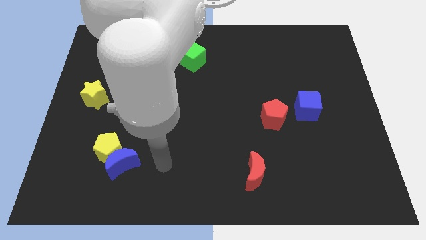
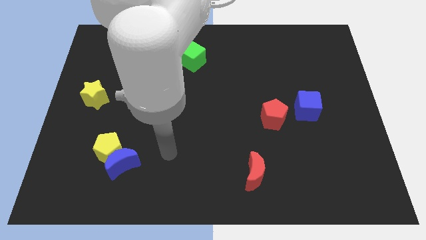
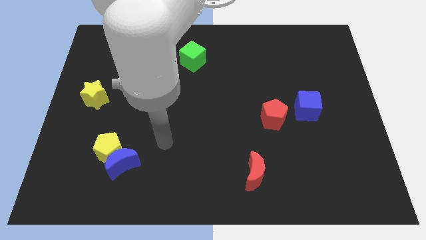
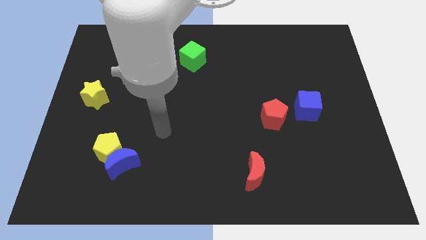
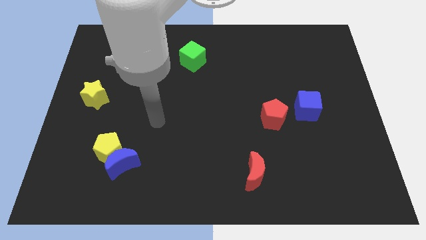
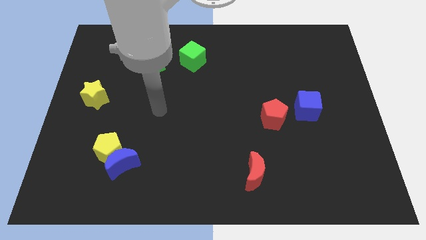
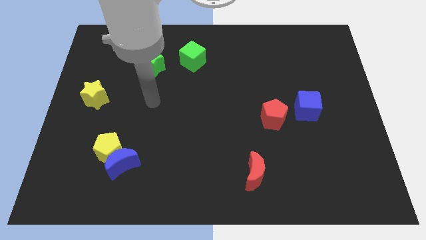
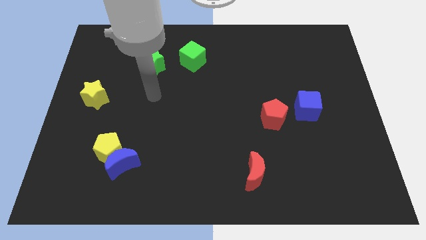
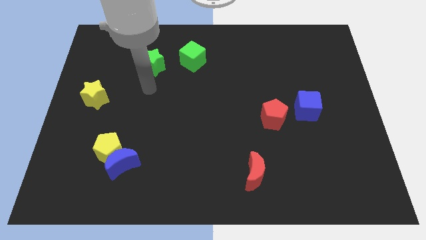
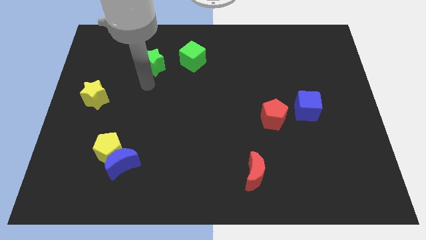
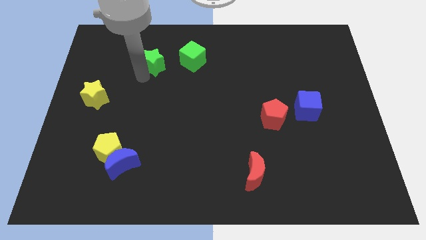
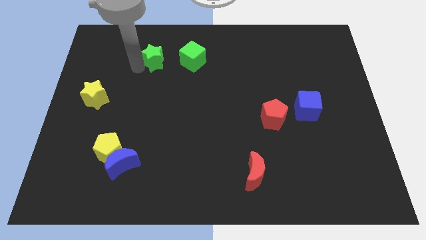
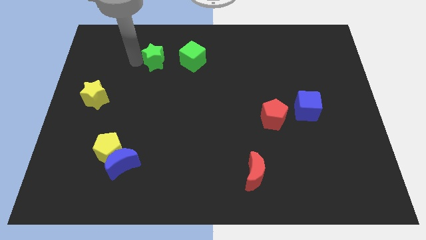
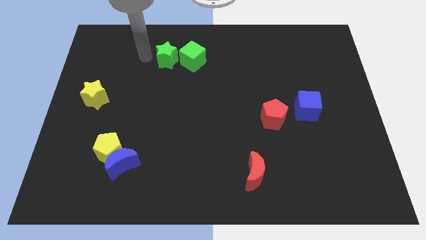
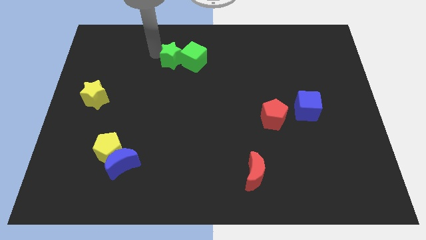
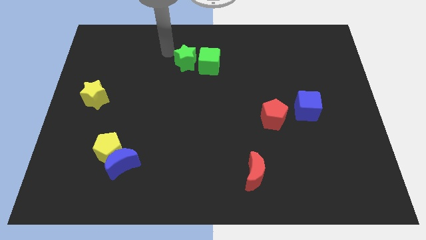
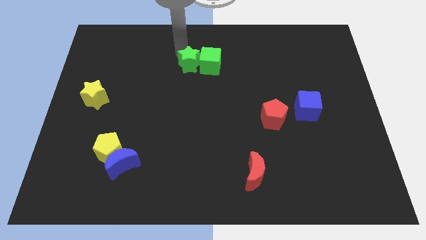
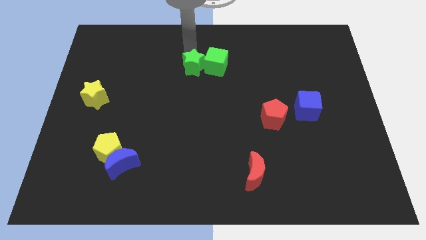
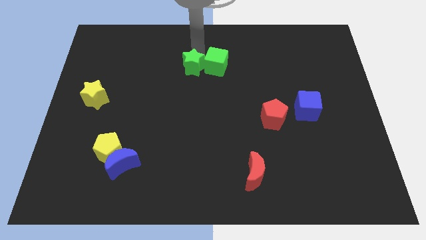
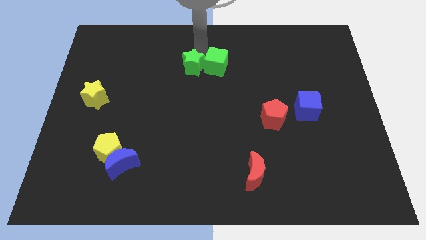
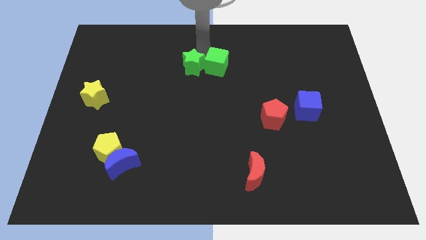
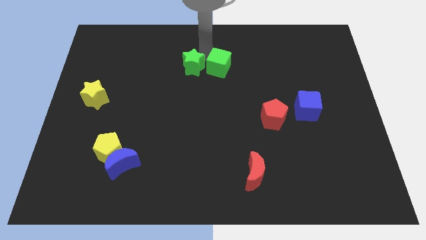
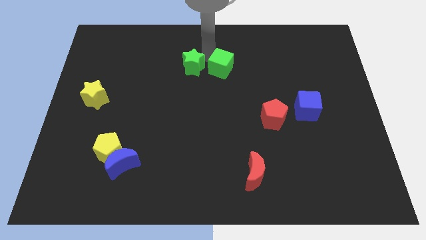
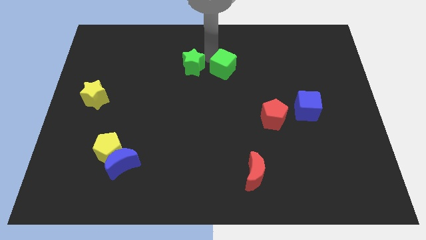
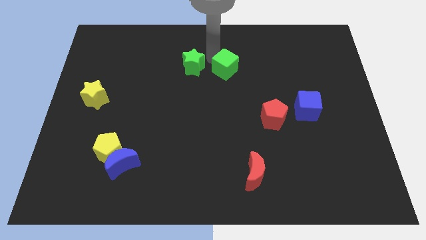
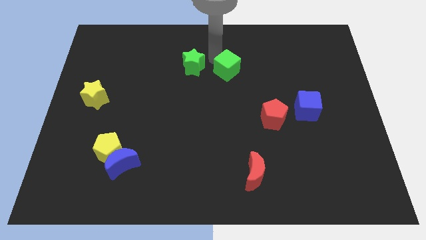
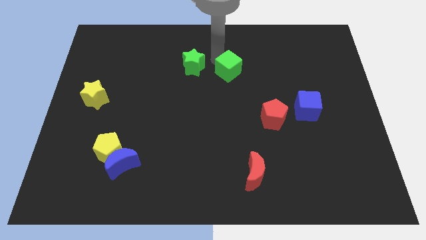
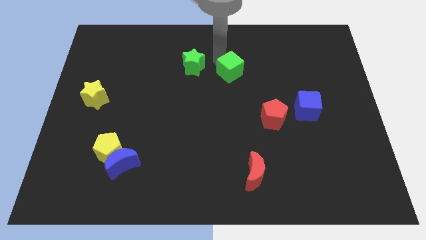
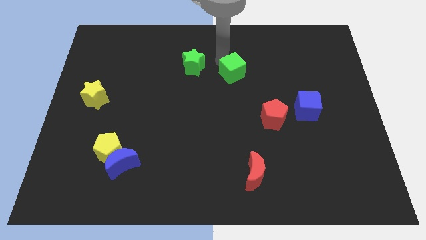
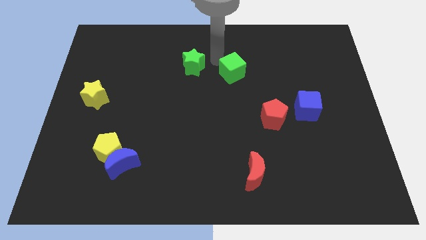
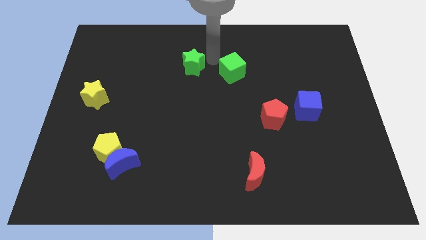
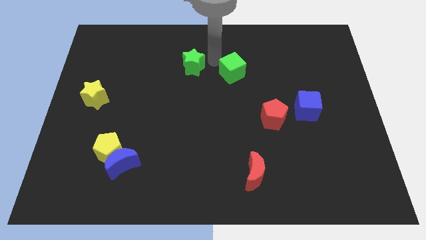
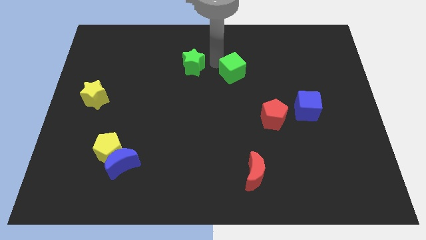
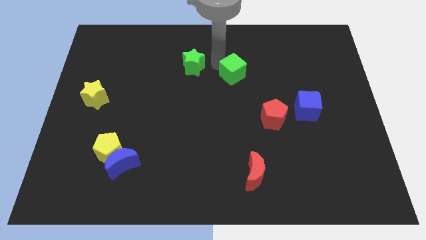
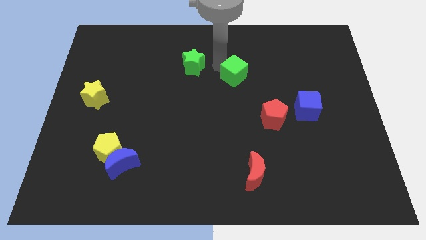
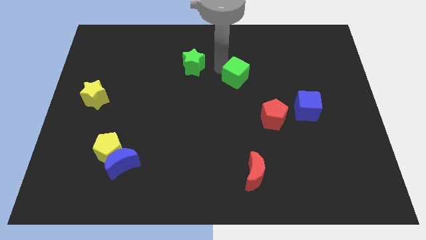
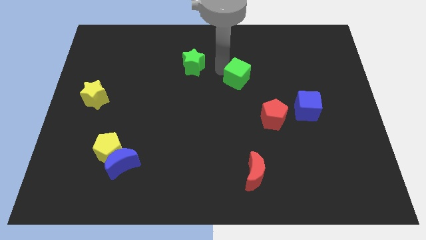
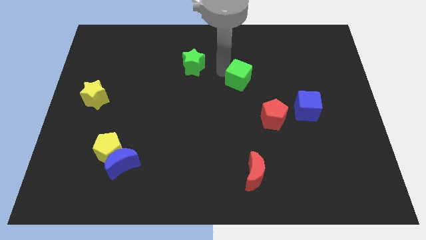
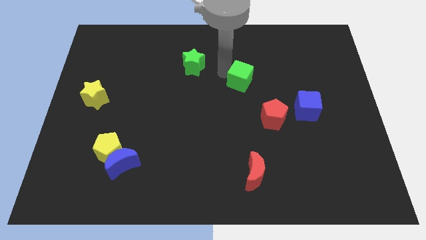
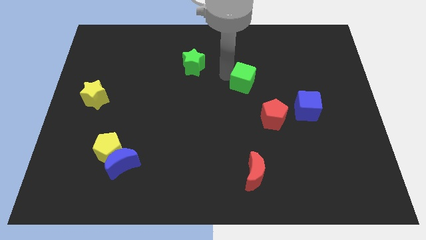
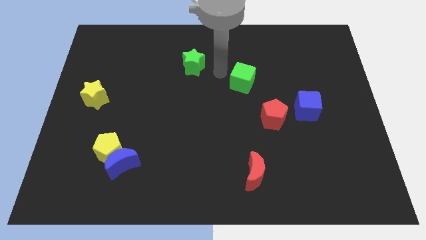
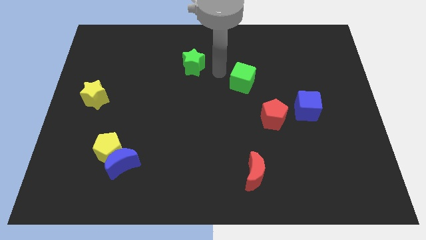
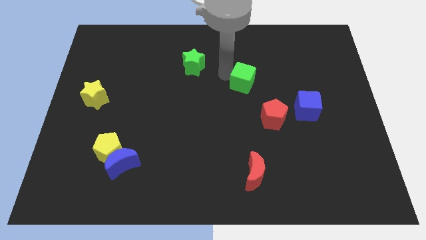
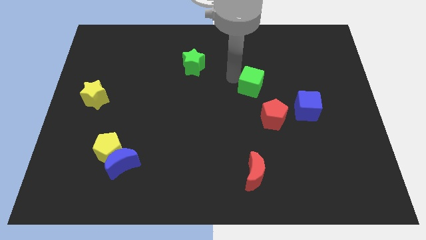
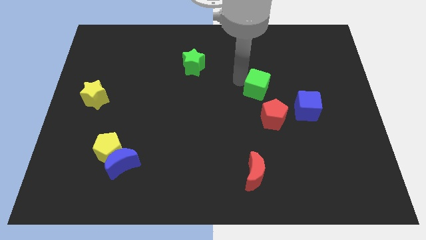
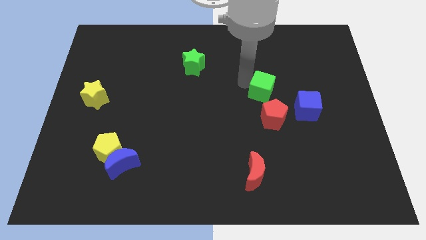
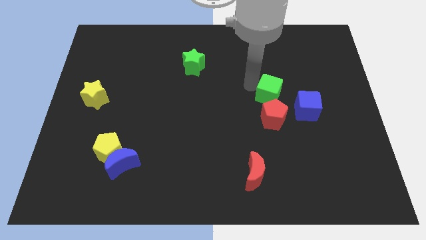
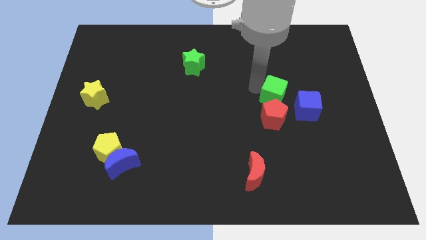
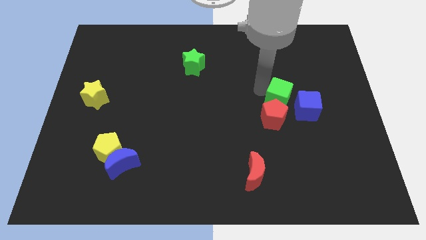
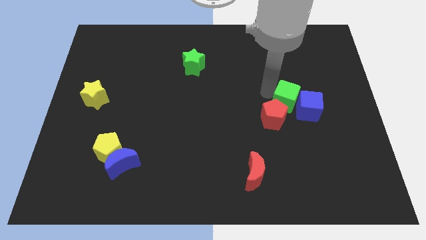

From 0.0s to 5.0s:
slide the green cube next to the blue cube

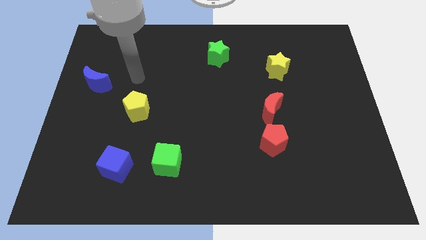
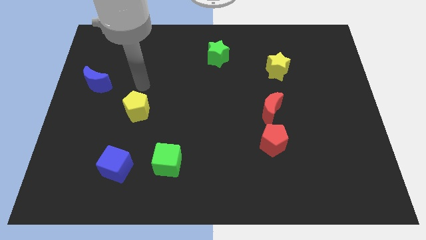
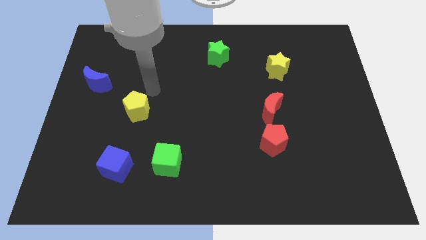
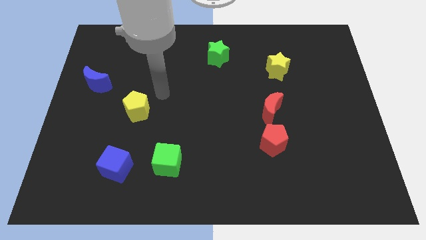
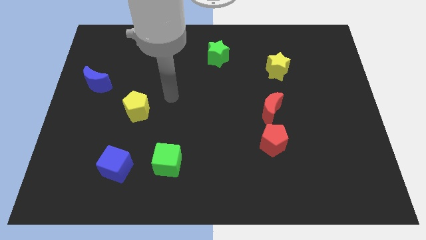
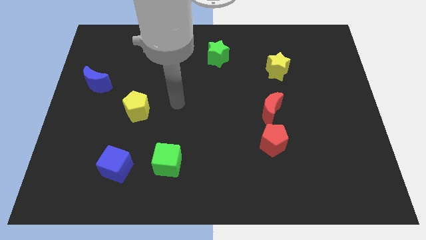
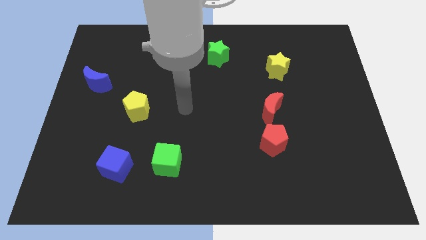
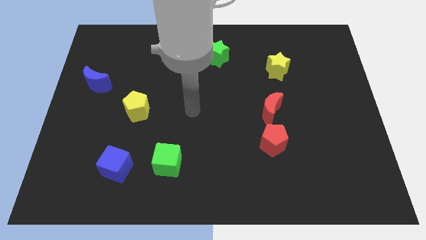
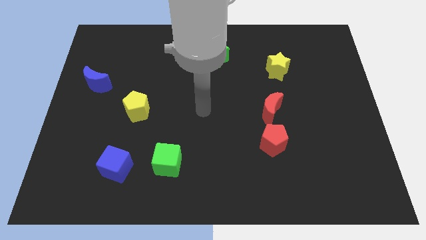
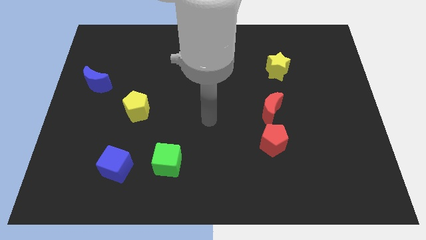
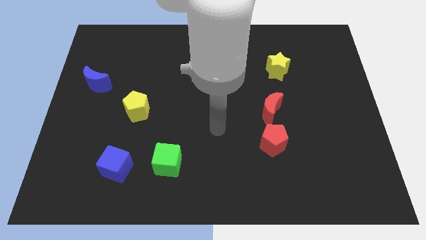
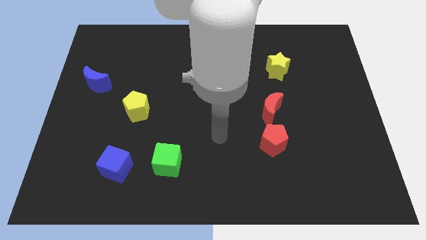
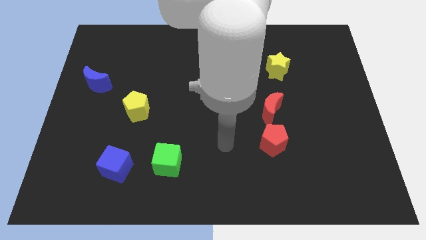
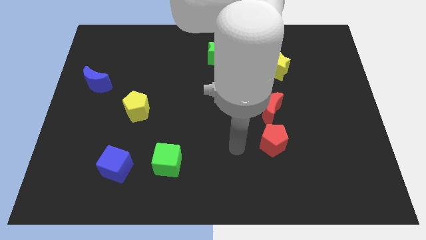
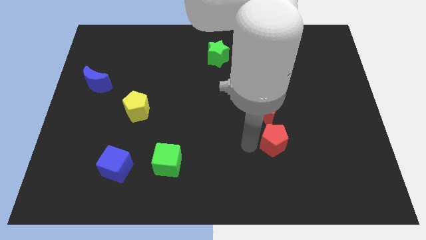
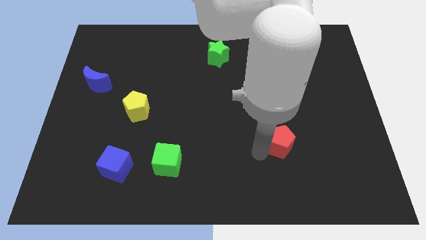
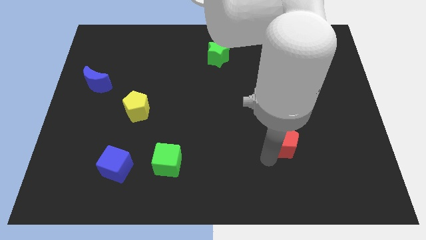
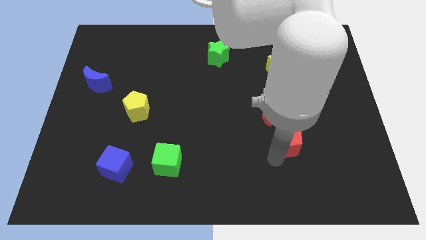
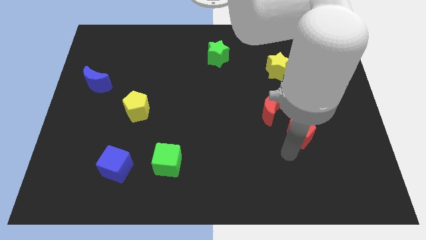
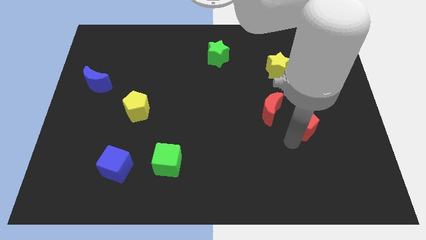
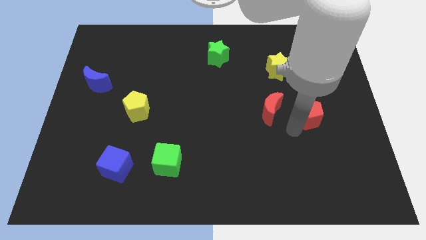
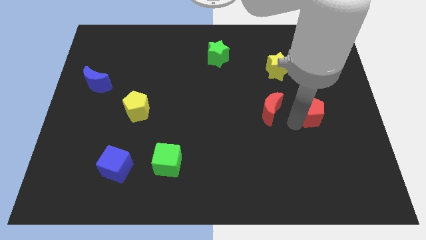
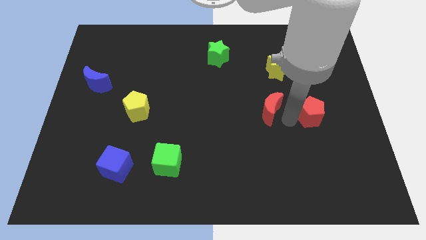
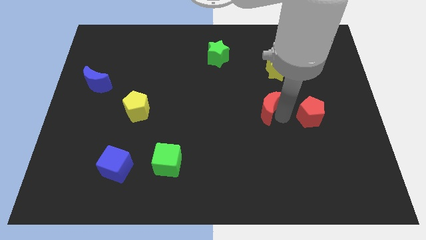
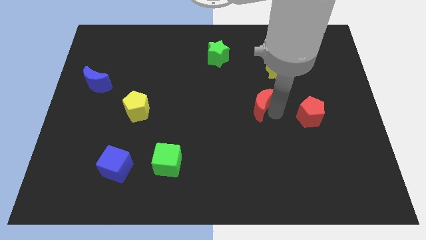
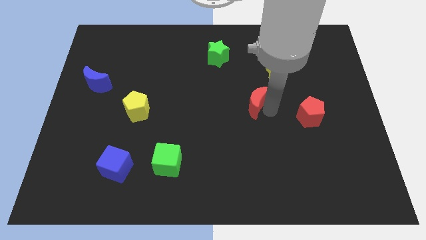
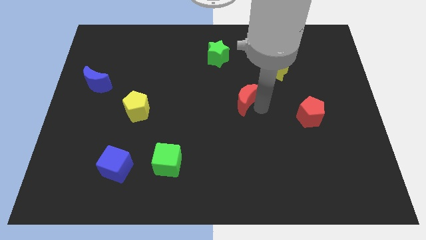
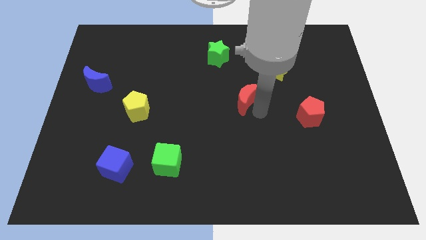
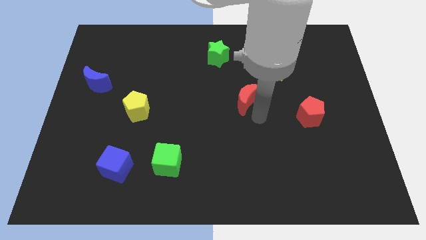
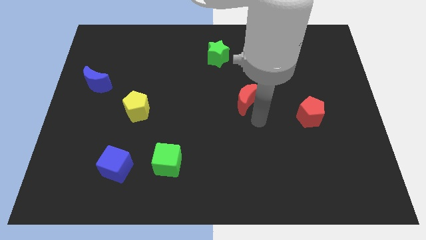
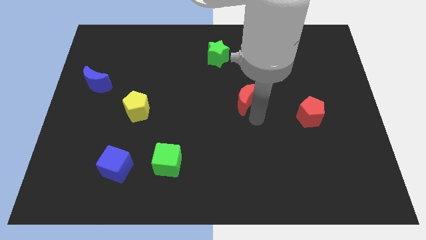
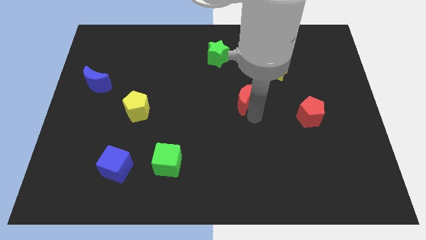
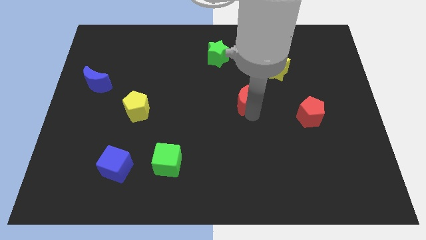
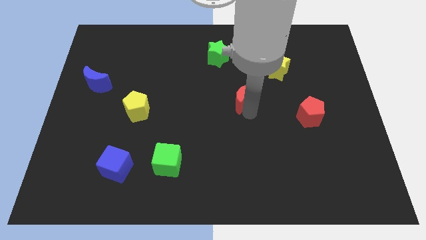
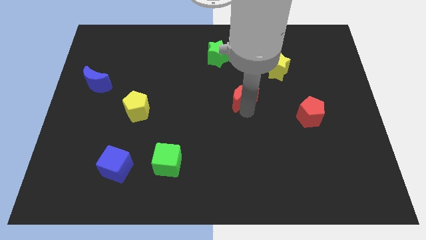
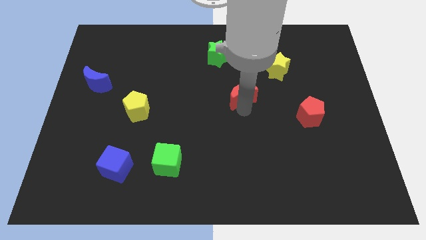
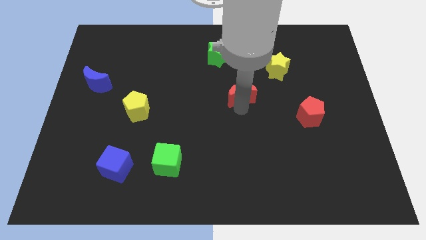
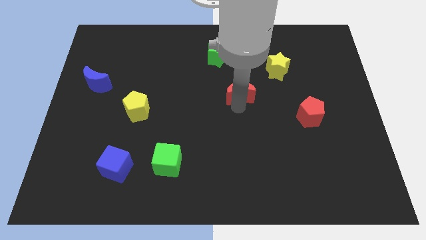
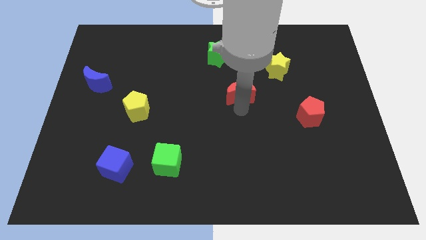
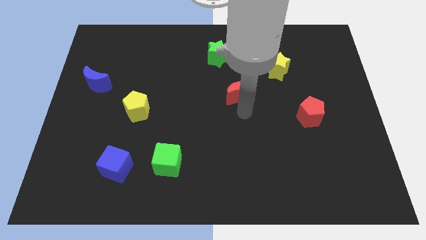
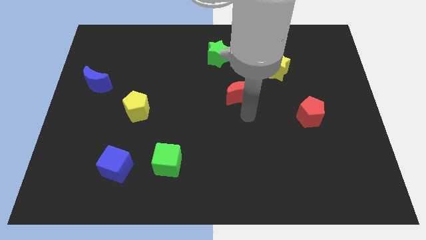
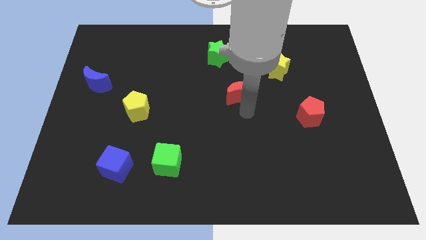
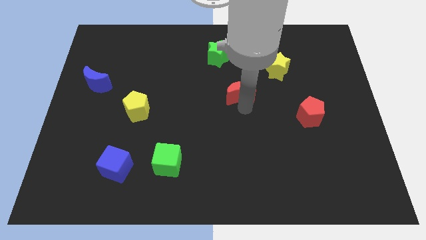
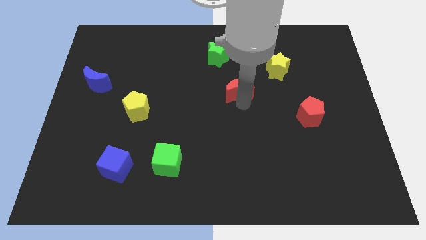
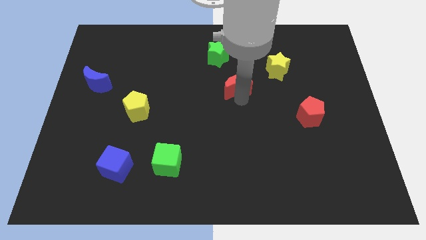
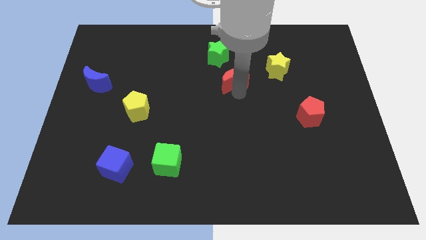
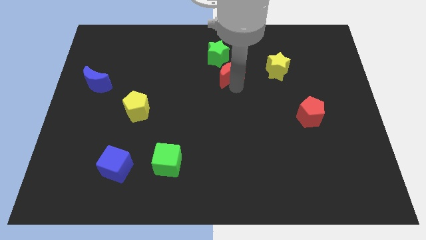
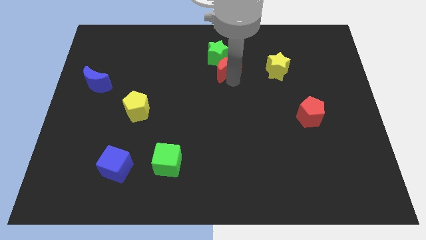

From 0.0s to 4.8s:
push the red moon to the green star
